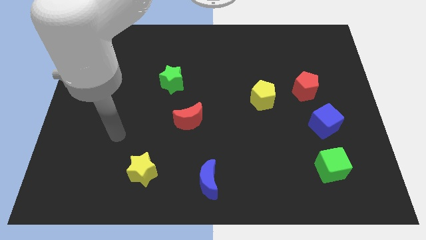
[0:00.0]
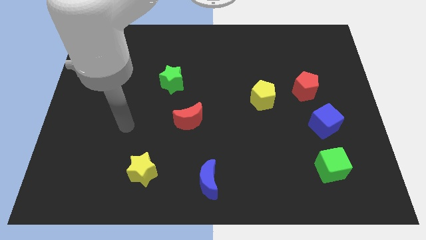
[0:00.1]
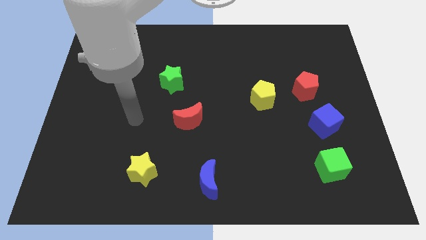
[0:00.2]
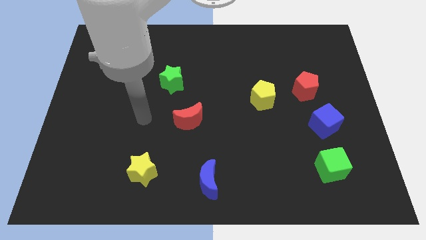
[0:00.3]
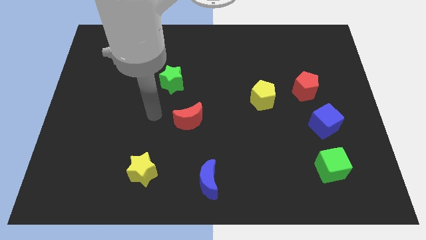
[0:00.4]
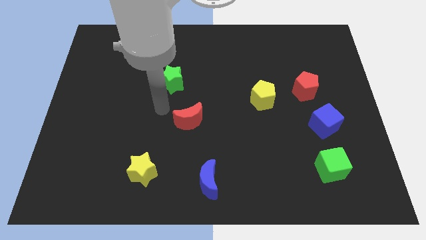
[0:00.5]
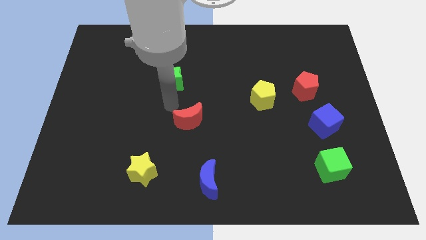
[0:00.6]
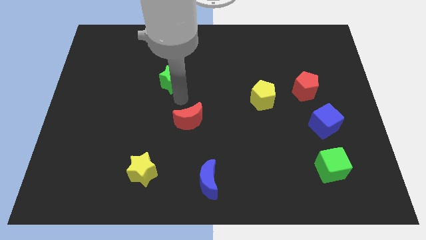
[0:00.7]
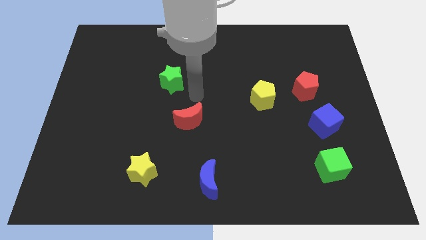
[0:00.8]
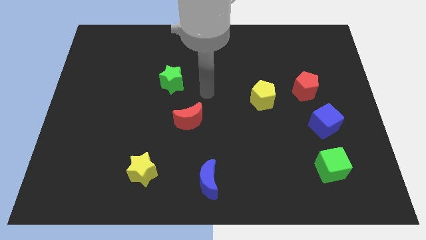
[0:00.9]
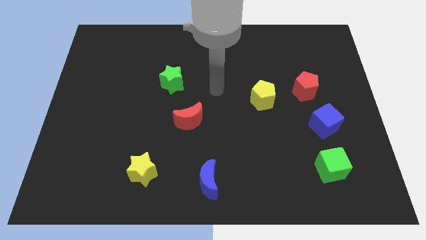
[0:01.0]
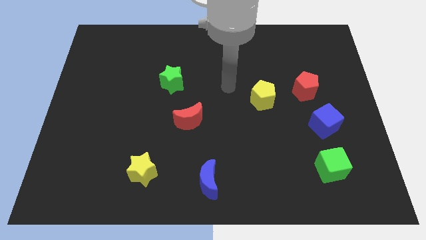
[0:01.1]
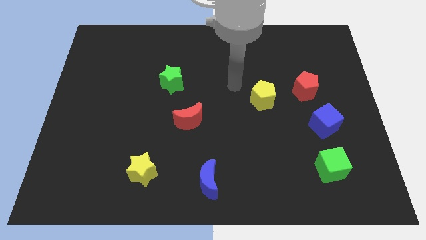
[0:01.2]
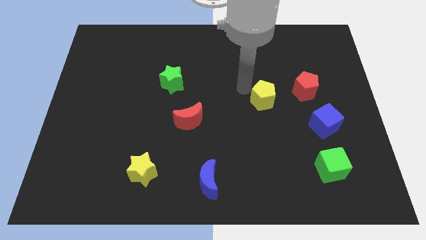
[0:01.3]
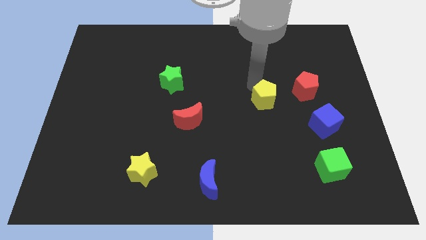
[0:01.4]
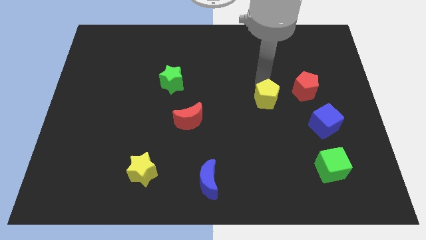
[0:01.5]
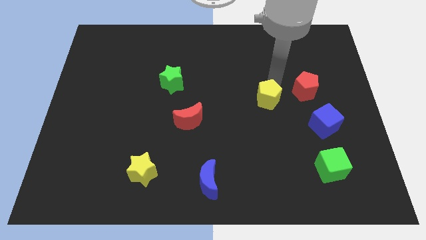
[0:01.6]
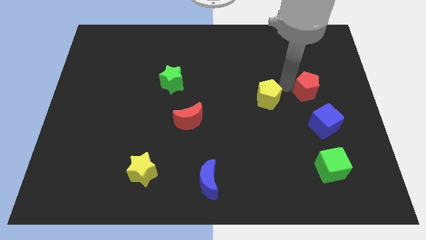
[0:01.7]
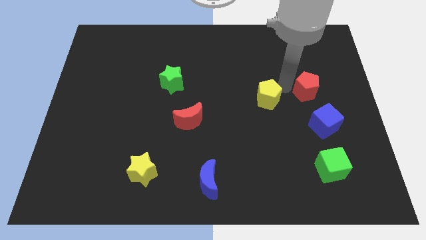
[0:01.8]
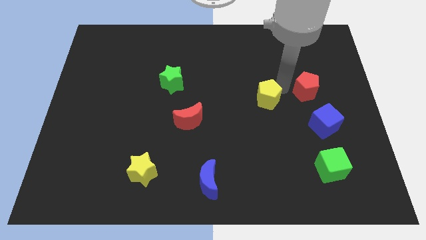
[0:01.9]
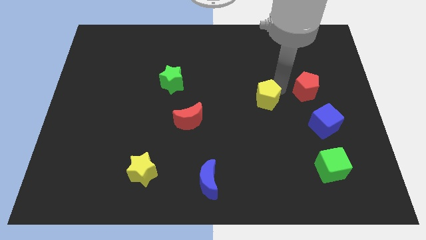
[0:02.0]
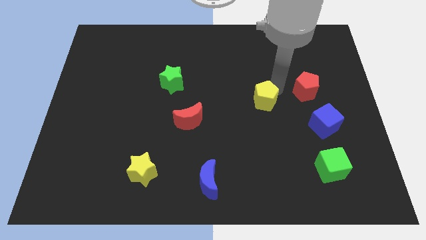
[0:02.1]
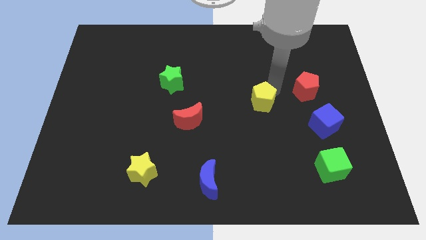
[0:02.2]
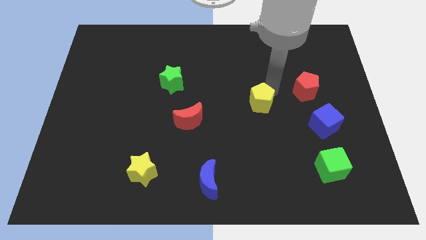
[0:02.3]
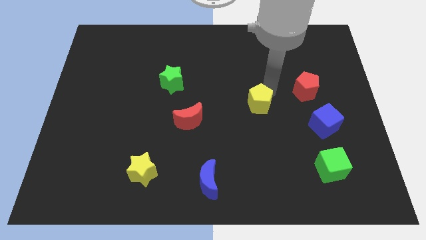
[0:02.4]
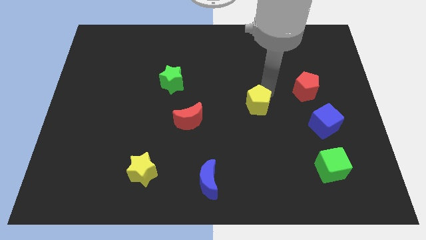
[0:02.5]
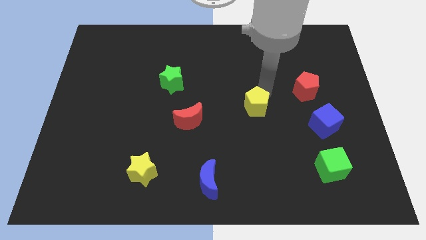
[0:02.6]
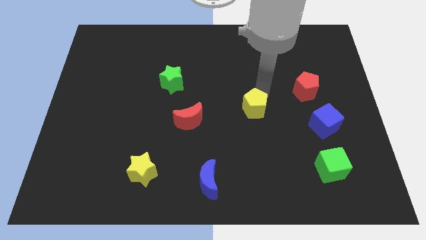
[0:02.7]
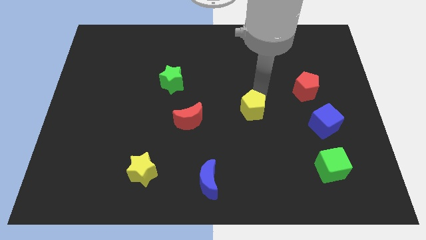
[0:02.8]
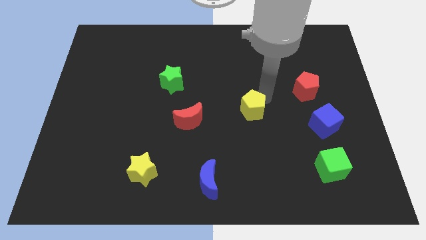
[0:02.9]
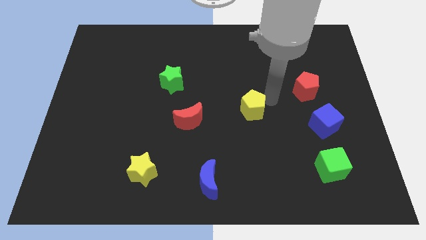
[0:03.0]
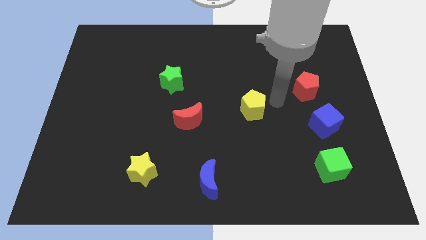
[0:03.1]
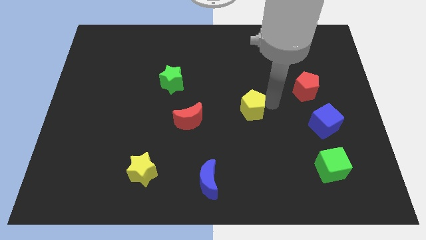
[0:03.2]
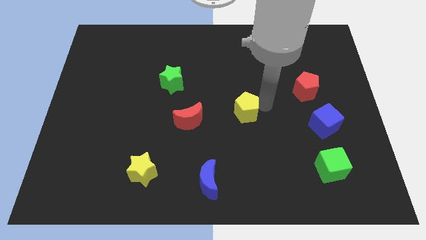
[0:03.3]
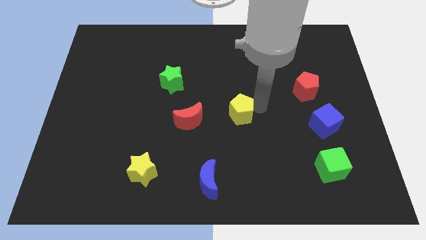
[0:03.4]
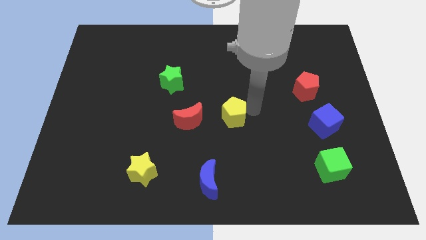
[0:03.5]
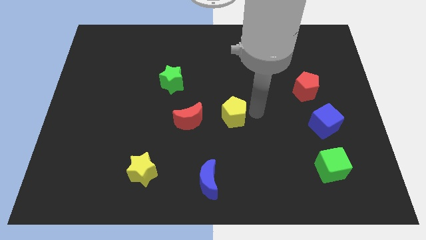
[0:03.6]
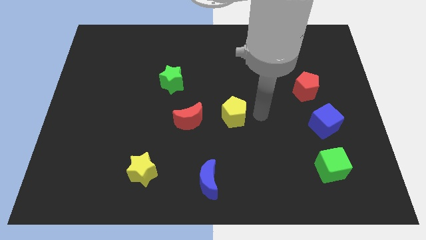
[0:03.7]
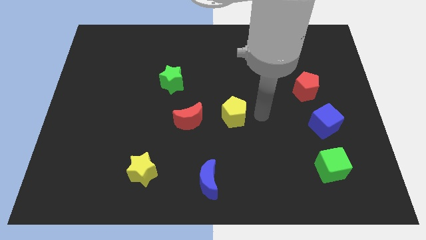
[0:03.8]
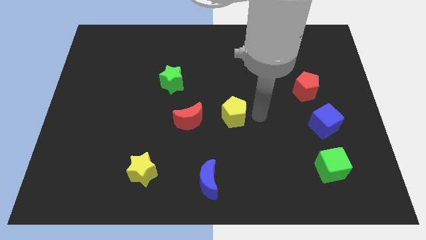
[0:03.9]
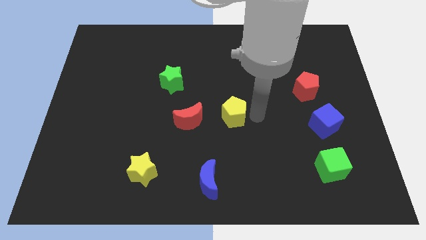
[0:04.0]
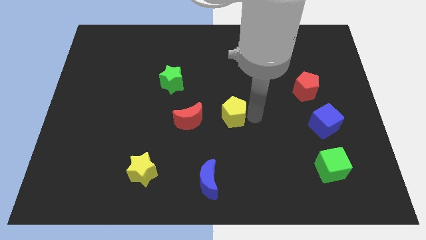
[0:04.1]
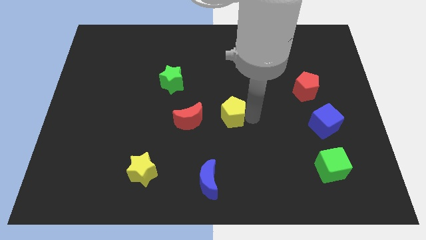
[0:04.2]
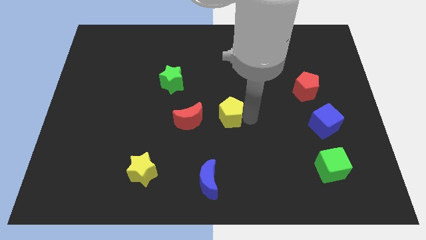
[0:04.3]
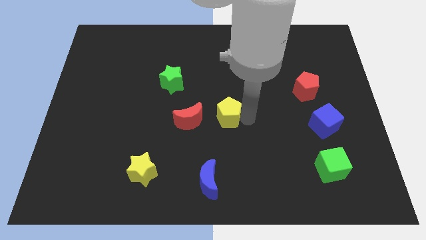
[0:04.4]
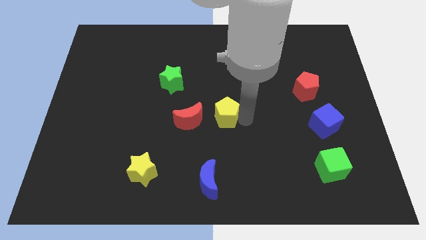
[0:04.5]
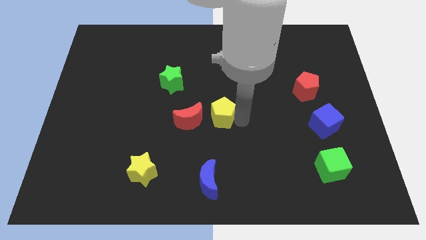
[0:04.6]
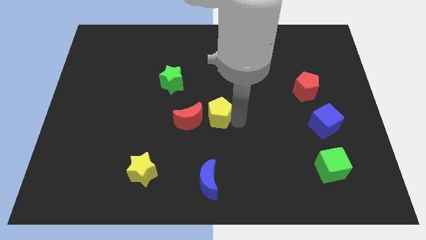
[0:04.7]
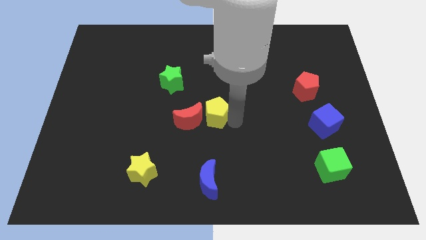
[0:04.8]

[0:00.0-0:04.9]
slide the yellow pentagon next to the red moon

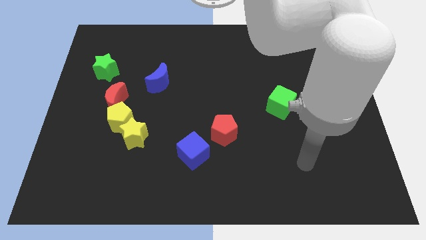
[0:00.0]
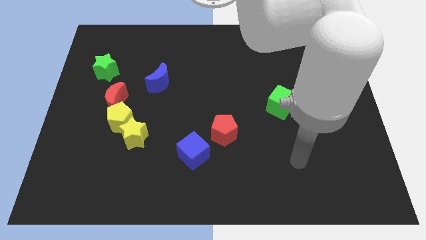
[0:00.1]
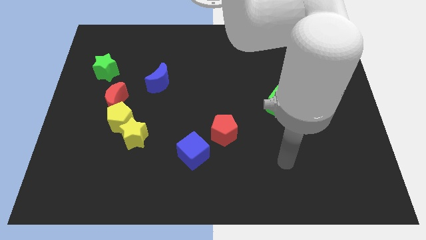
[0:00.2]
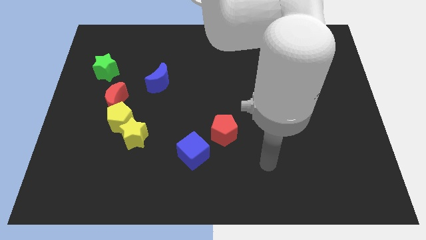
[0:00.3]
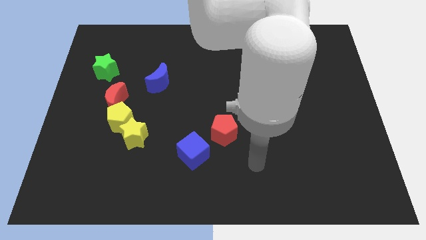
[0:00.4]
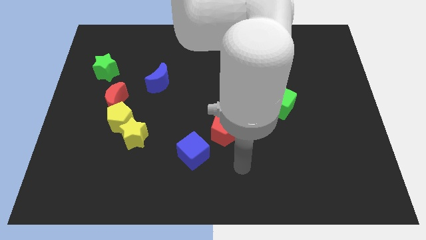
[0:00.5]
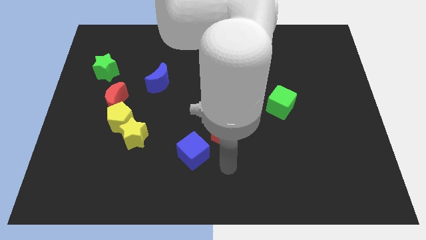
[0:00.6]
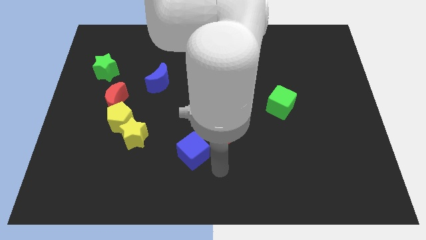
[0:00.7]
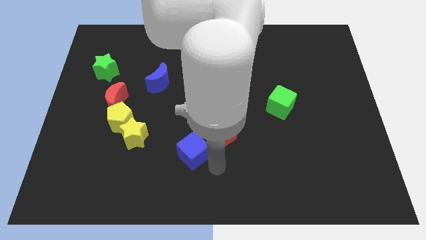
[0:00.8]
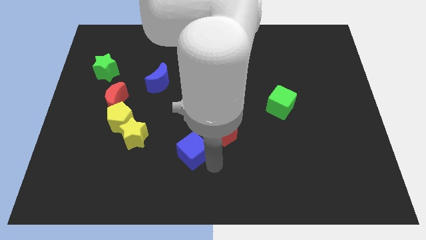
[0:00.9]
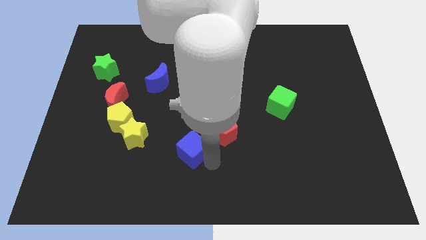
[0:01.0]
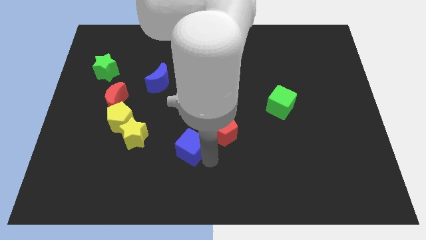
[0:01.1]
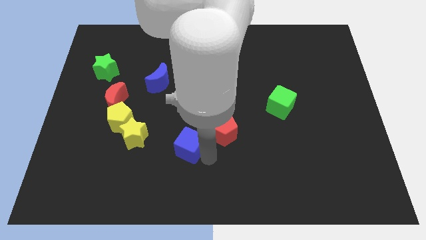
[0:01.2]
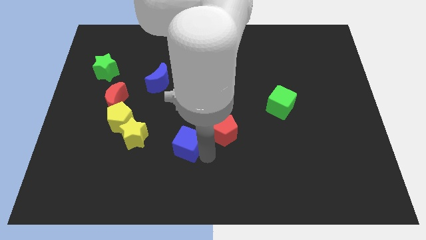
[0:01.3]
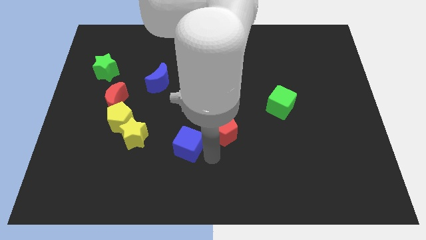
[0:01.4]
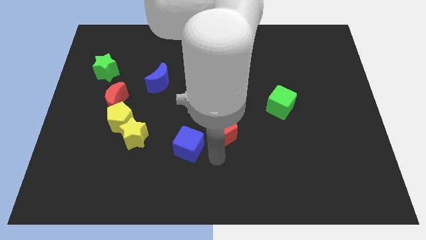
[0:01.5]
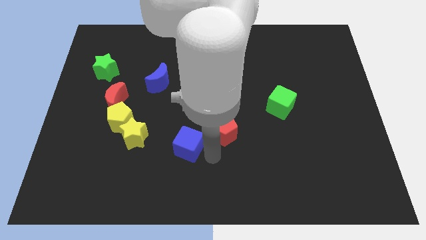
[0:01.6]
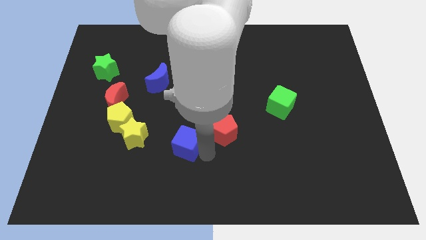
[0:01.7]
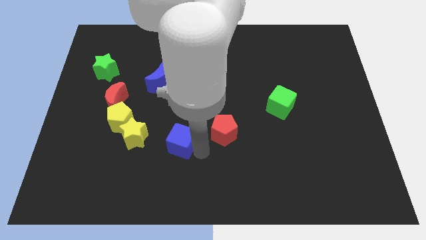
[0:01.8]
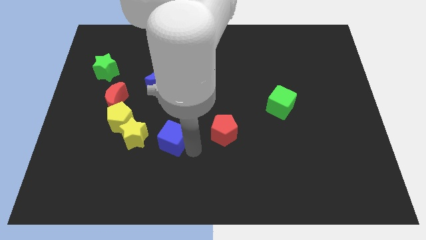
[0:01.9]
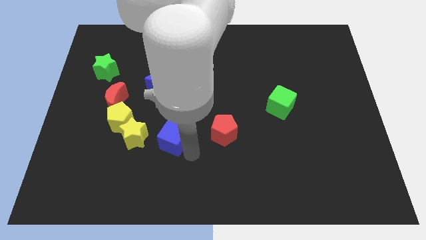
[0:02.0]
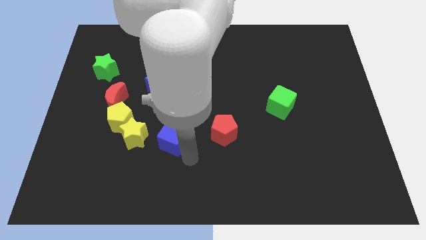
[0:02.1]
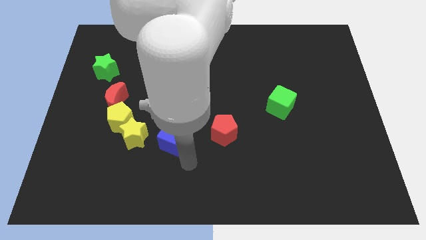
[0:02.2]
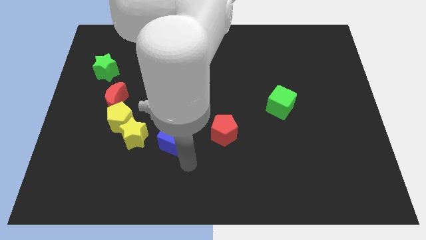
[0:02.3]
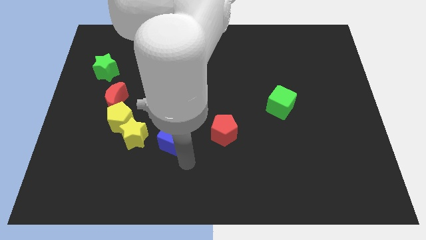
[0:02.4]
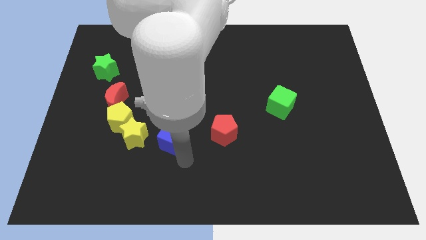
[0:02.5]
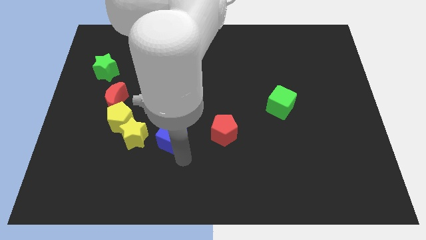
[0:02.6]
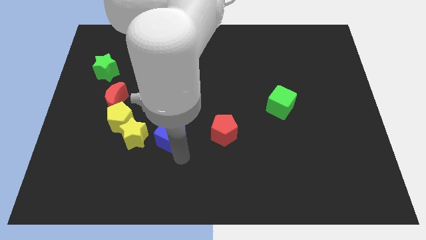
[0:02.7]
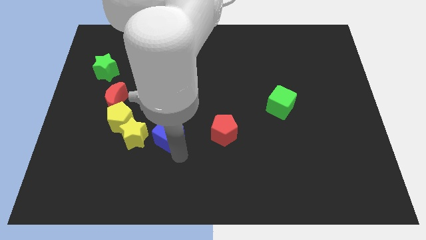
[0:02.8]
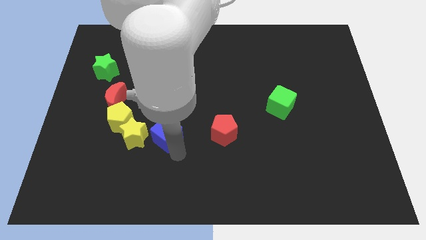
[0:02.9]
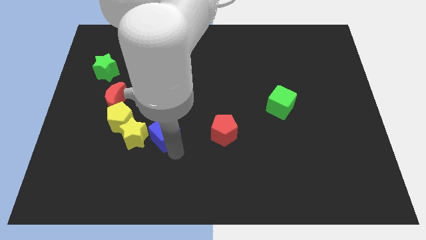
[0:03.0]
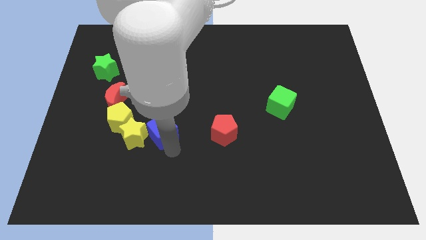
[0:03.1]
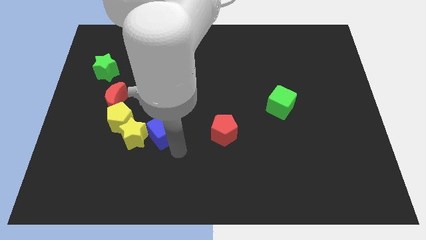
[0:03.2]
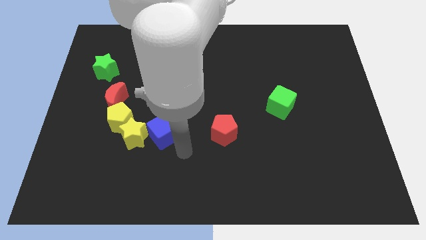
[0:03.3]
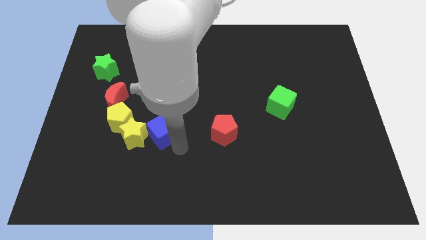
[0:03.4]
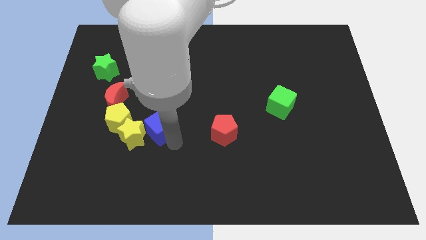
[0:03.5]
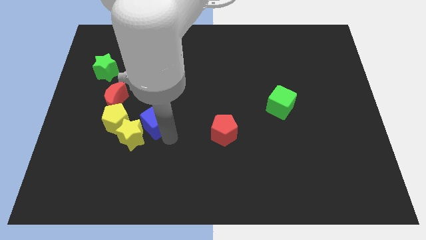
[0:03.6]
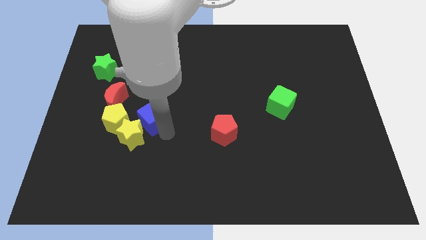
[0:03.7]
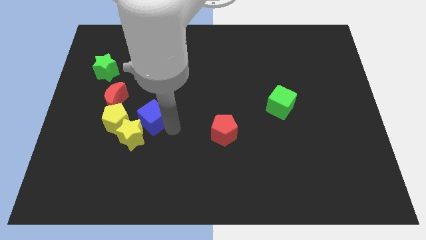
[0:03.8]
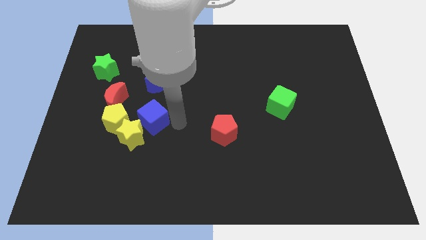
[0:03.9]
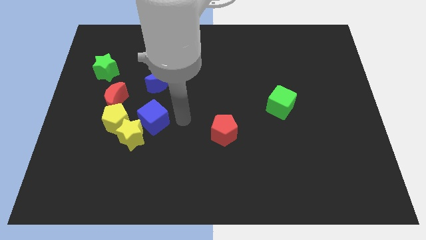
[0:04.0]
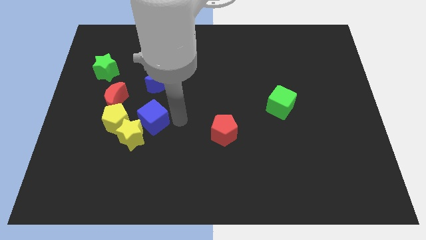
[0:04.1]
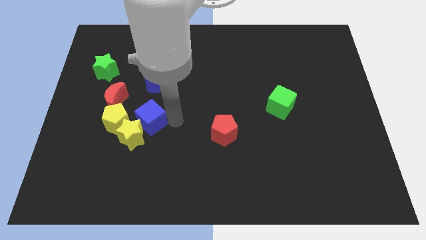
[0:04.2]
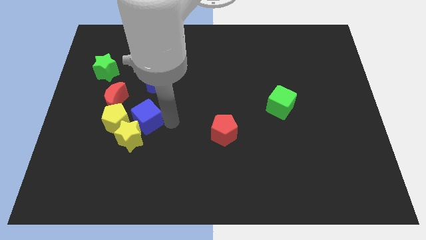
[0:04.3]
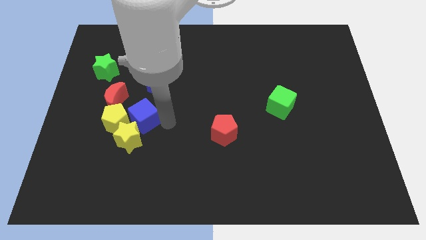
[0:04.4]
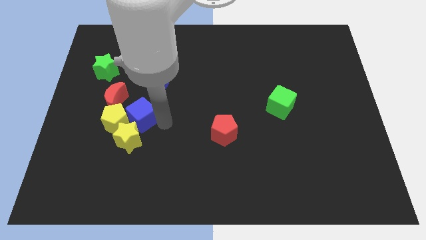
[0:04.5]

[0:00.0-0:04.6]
push the blue cube next to the yellow pentagon
